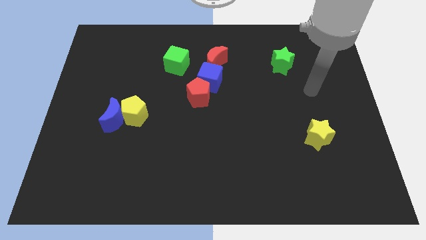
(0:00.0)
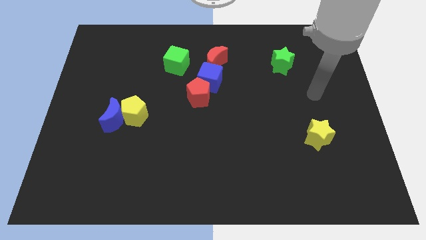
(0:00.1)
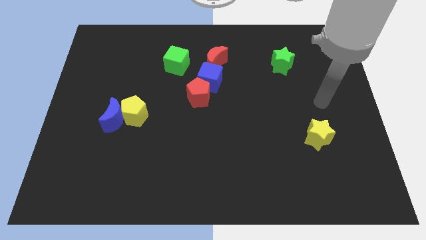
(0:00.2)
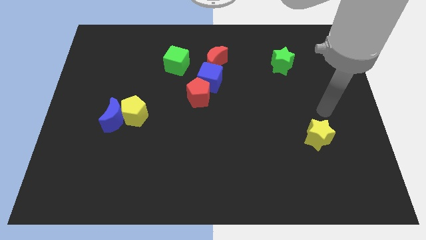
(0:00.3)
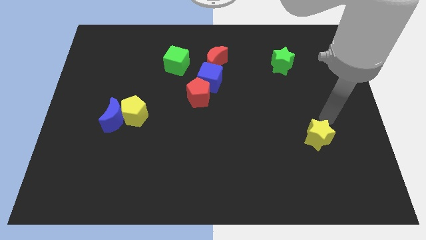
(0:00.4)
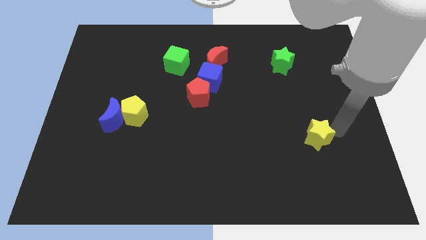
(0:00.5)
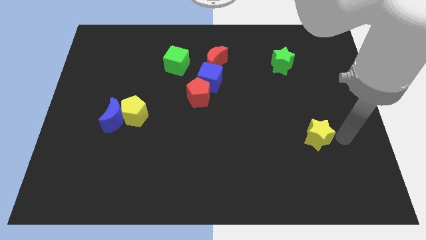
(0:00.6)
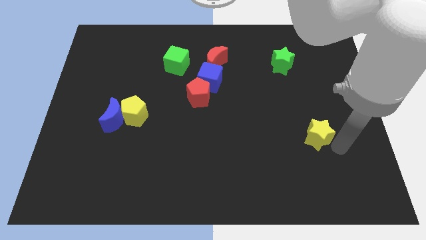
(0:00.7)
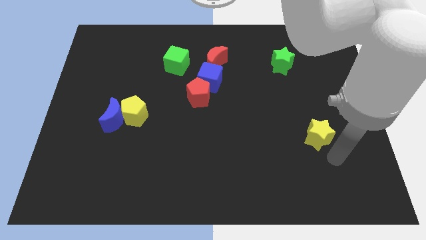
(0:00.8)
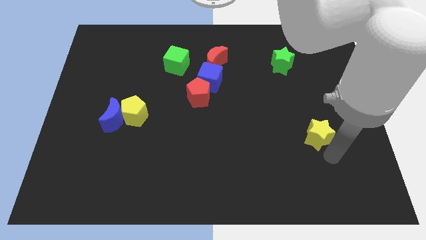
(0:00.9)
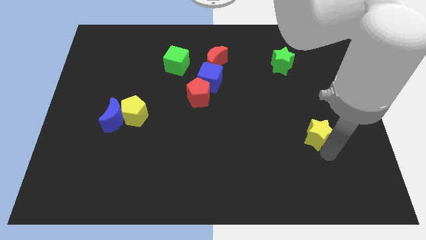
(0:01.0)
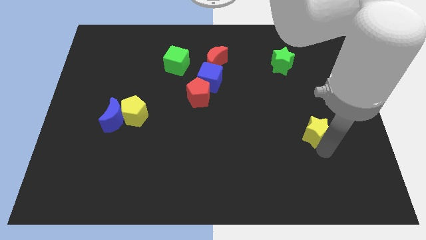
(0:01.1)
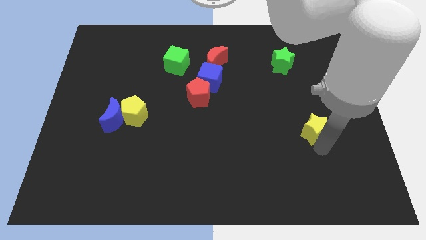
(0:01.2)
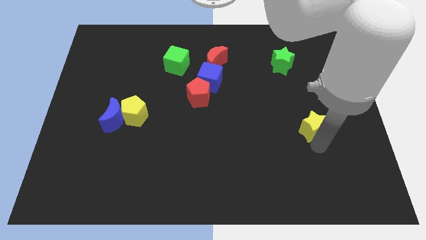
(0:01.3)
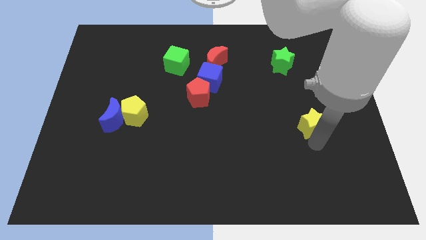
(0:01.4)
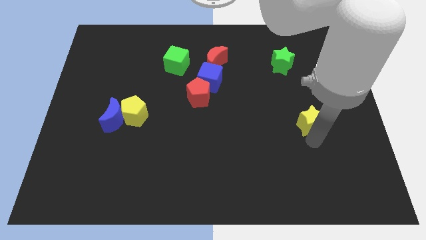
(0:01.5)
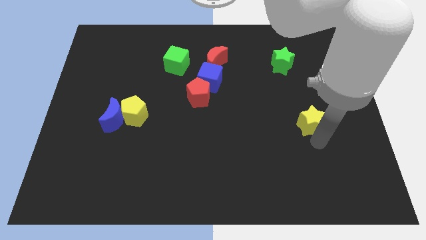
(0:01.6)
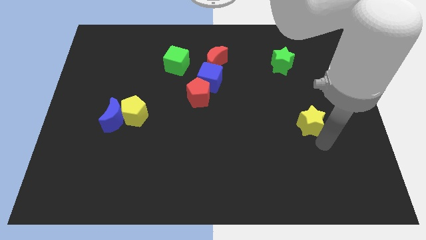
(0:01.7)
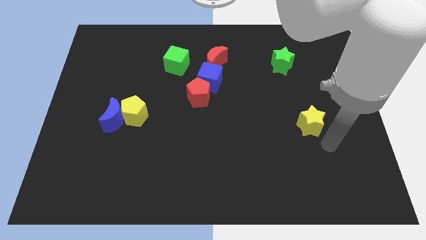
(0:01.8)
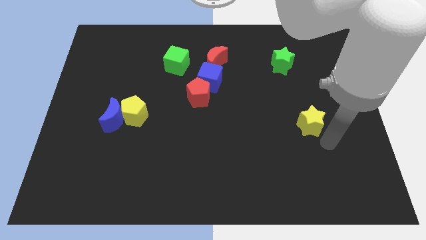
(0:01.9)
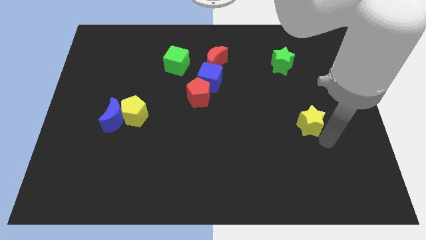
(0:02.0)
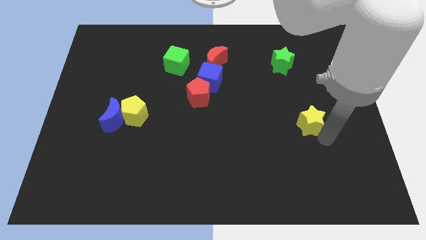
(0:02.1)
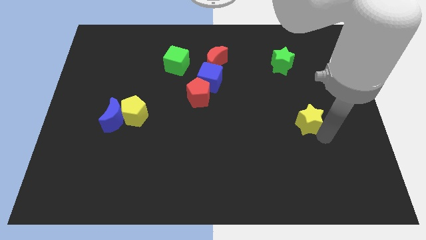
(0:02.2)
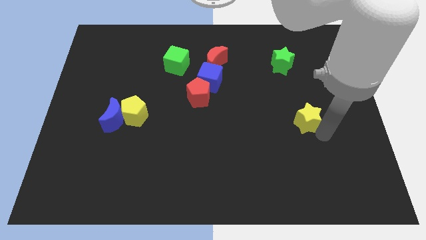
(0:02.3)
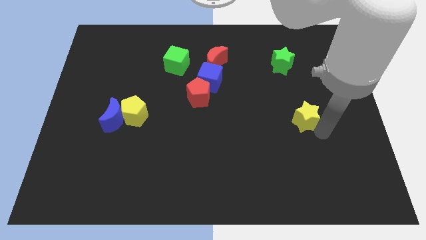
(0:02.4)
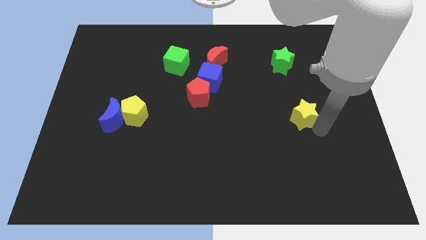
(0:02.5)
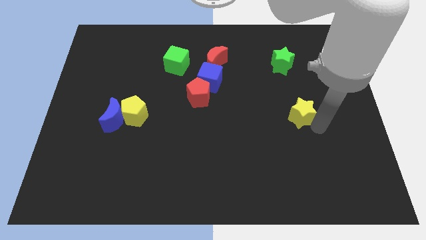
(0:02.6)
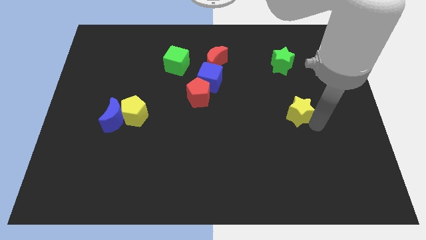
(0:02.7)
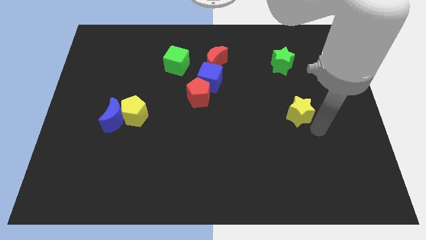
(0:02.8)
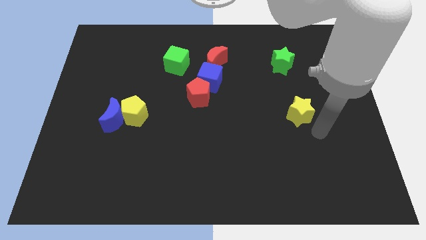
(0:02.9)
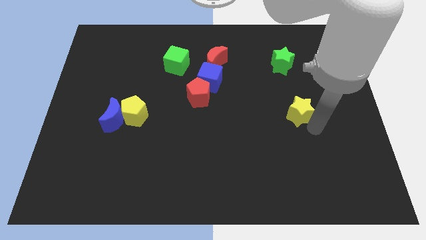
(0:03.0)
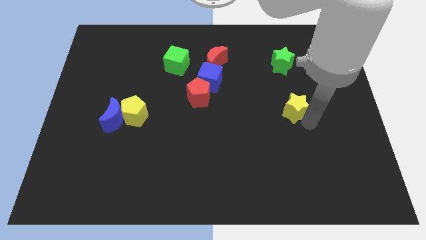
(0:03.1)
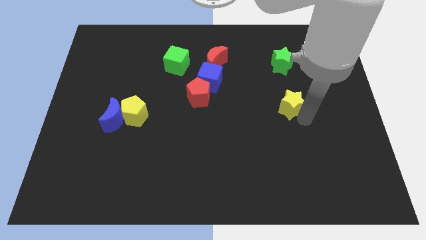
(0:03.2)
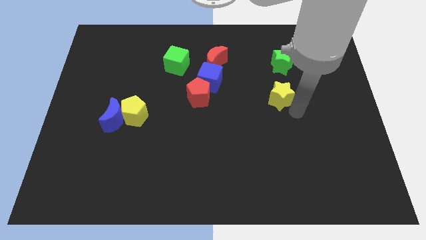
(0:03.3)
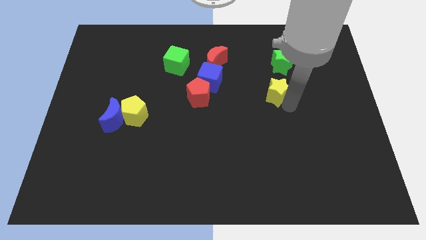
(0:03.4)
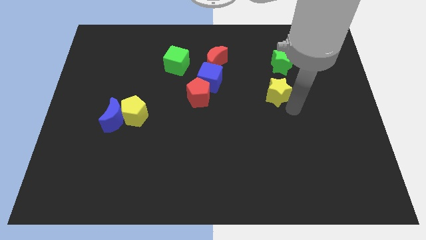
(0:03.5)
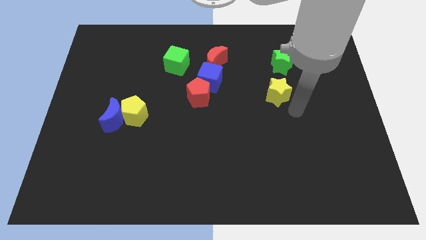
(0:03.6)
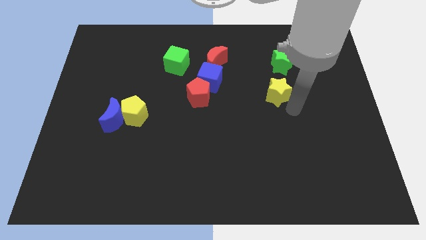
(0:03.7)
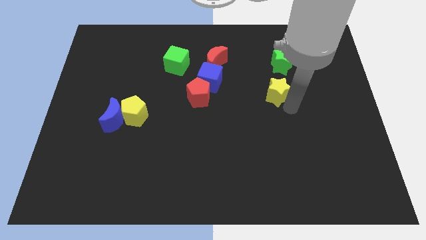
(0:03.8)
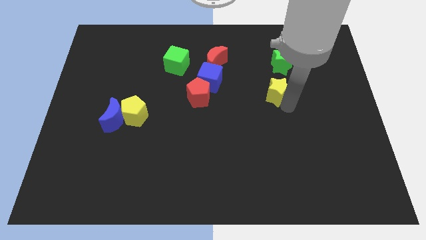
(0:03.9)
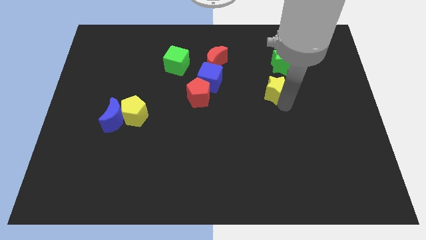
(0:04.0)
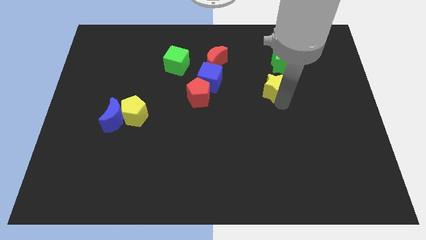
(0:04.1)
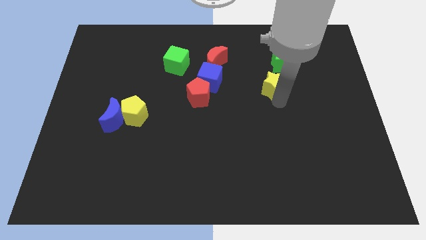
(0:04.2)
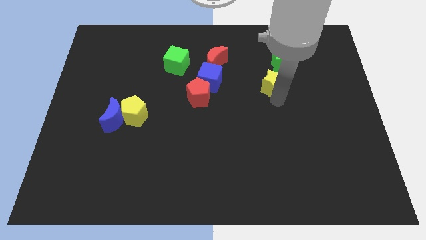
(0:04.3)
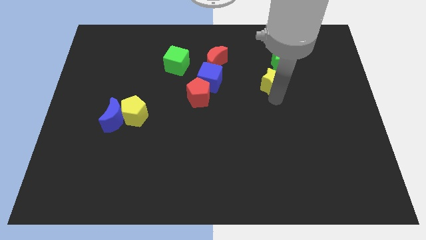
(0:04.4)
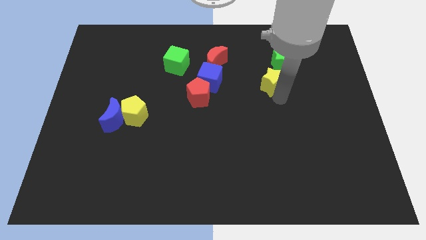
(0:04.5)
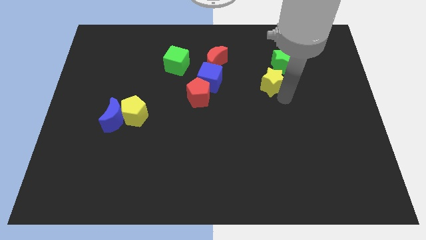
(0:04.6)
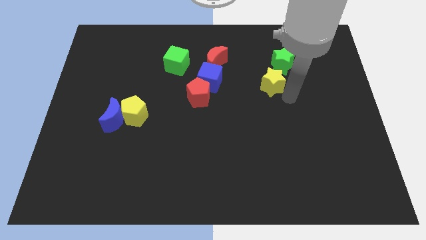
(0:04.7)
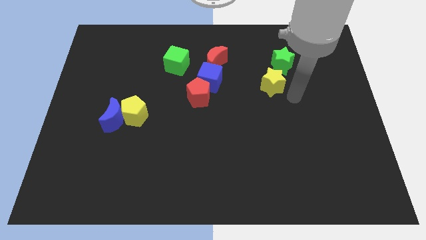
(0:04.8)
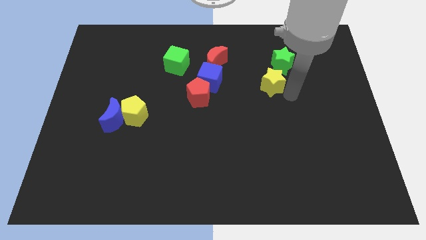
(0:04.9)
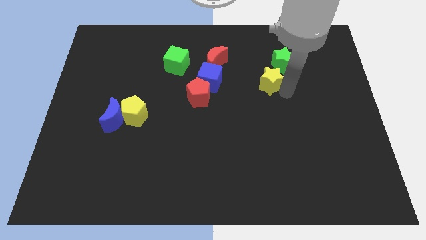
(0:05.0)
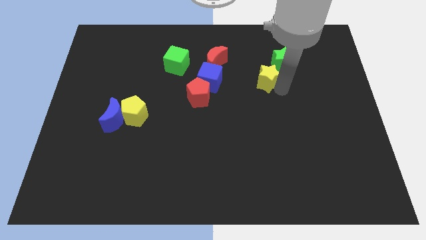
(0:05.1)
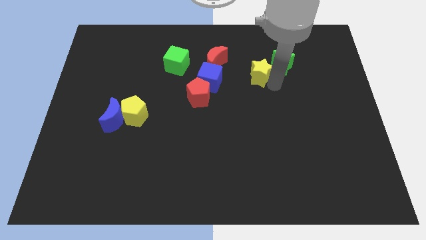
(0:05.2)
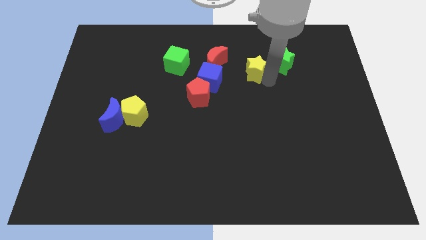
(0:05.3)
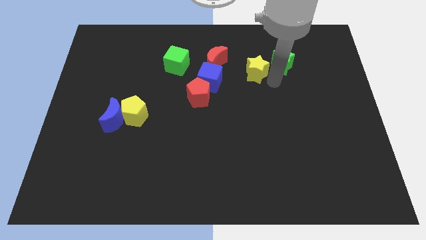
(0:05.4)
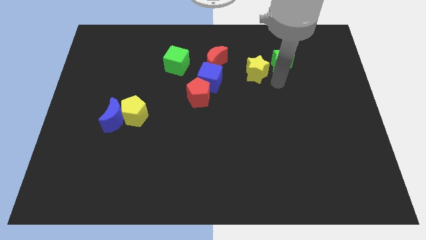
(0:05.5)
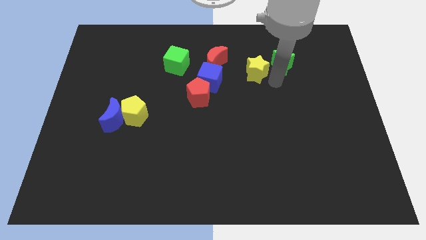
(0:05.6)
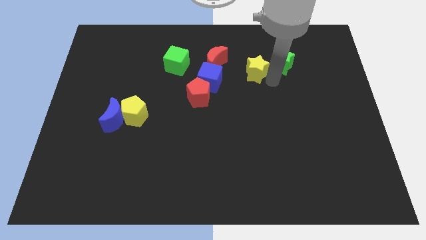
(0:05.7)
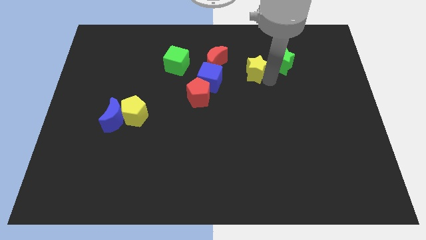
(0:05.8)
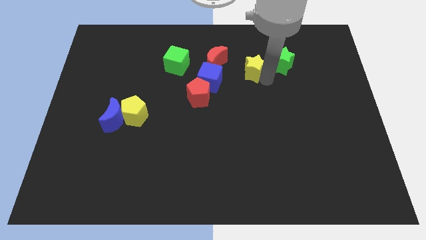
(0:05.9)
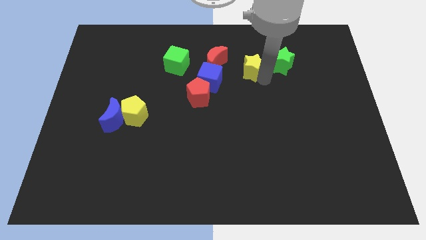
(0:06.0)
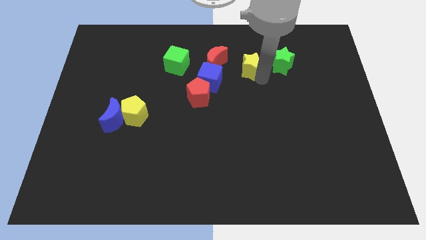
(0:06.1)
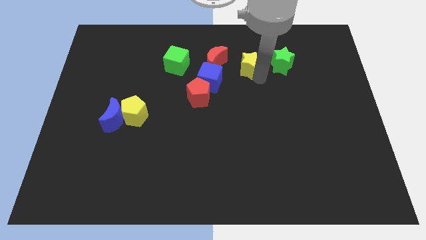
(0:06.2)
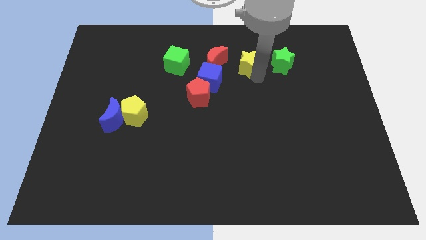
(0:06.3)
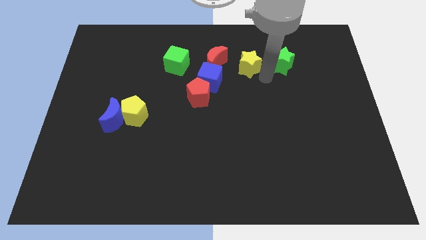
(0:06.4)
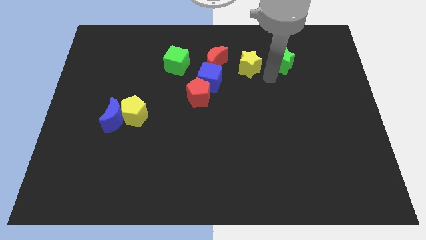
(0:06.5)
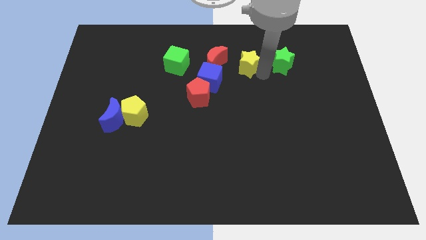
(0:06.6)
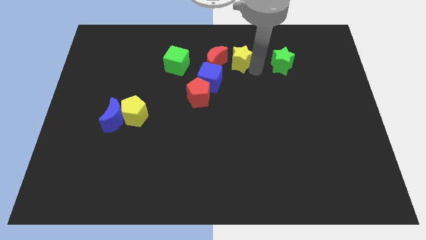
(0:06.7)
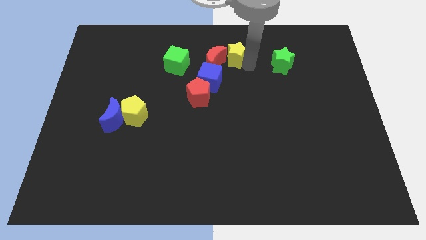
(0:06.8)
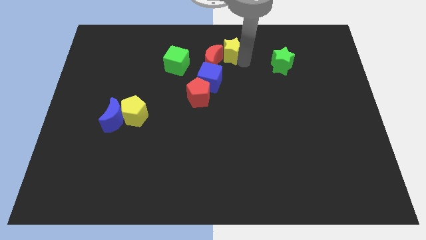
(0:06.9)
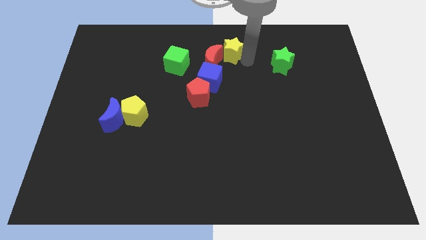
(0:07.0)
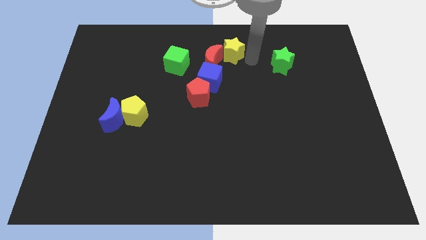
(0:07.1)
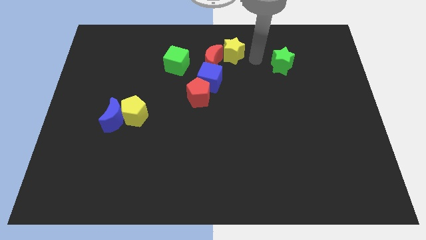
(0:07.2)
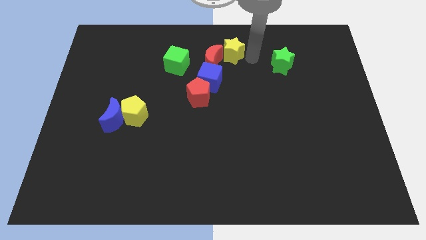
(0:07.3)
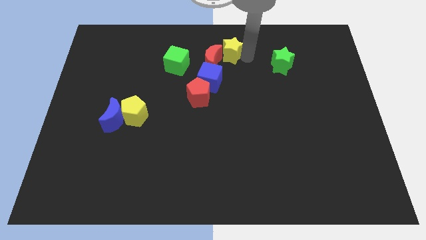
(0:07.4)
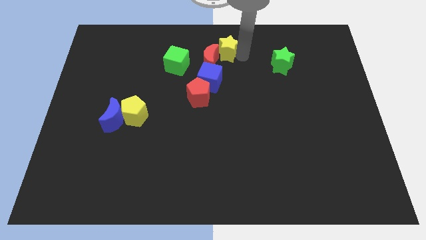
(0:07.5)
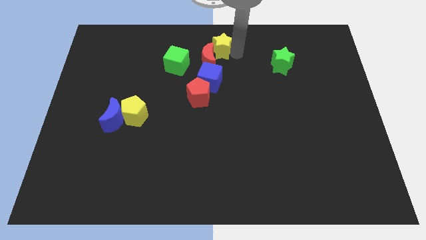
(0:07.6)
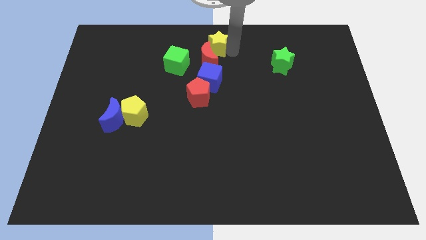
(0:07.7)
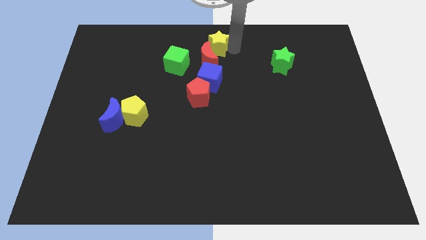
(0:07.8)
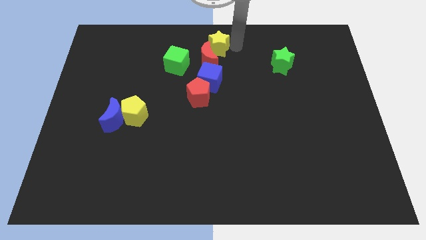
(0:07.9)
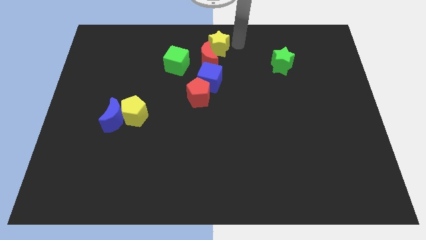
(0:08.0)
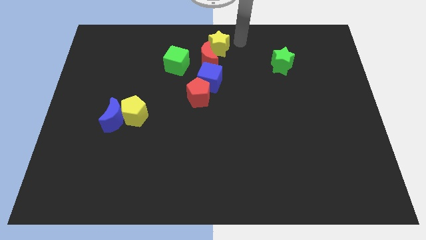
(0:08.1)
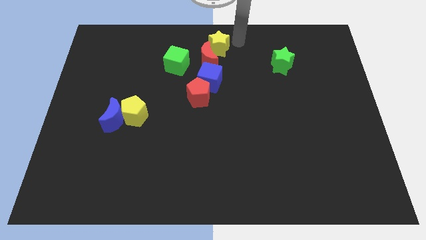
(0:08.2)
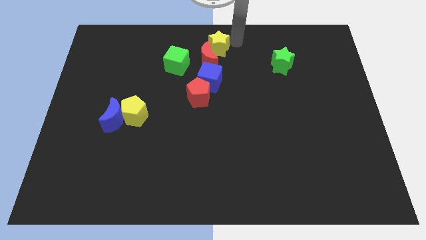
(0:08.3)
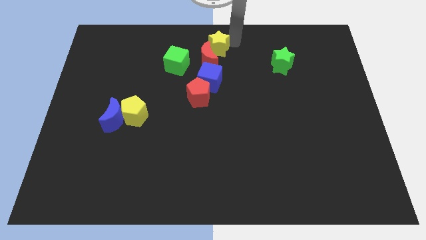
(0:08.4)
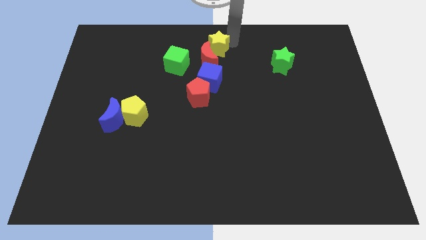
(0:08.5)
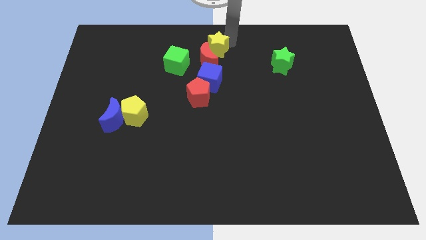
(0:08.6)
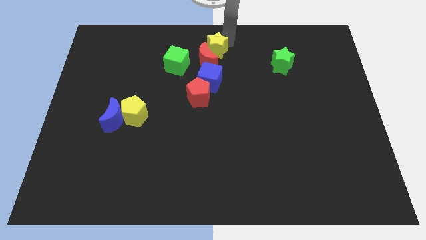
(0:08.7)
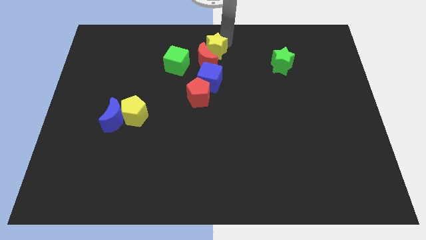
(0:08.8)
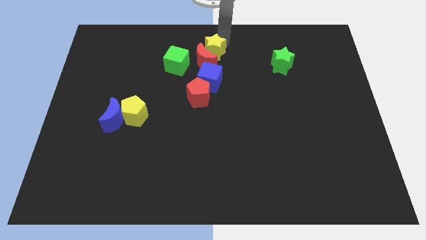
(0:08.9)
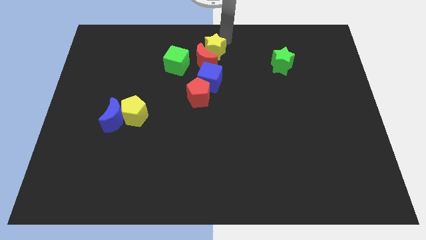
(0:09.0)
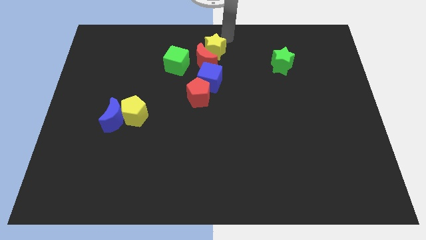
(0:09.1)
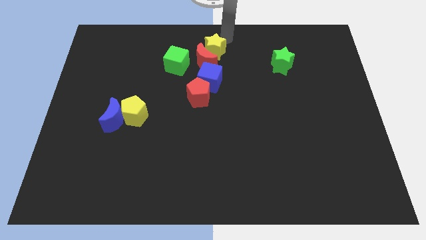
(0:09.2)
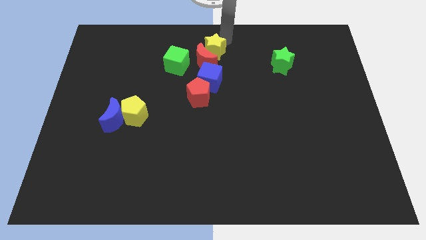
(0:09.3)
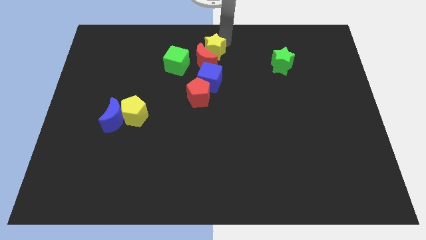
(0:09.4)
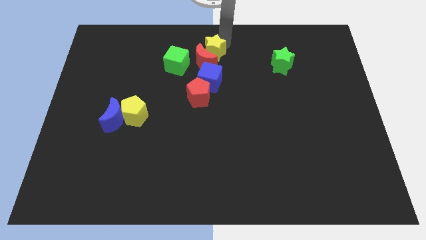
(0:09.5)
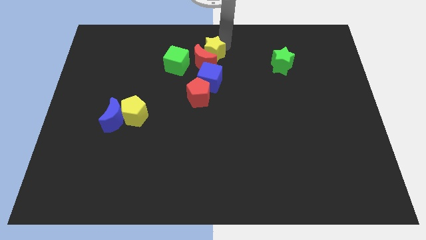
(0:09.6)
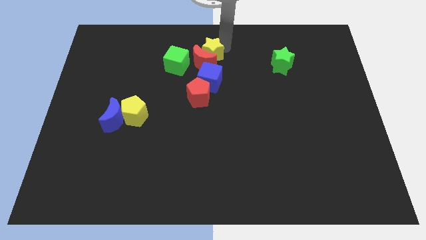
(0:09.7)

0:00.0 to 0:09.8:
move the yellow star to the top of the red pentagon
